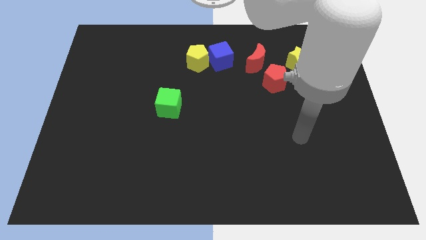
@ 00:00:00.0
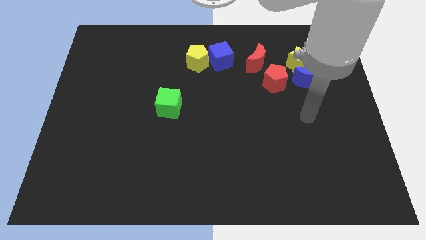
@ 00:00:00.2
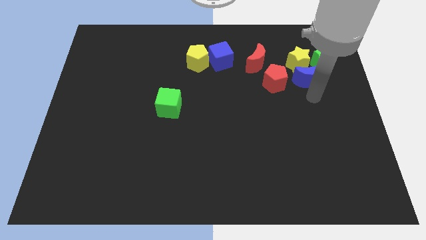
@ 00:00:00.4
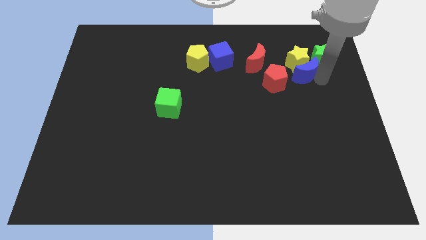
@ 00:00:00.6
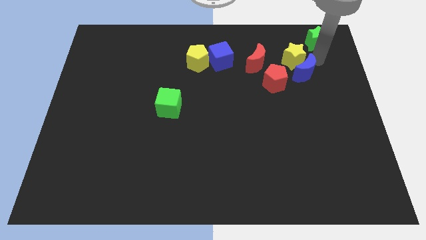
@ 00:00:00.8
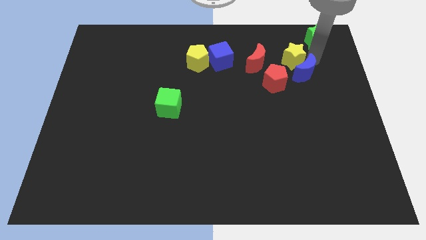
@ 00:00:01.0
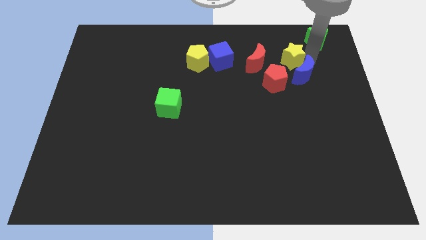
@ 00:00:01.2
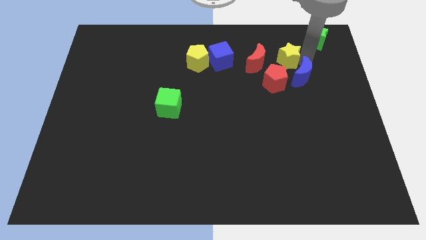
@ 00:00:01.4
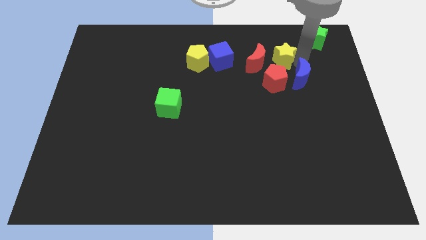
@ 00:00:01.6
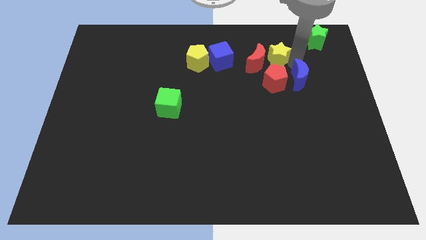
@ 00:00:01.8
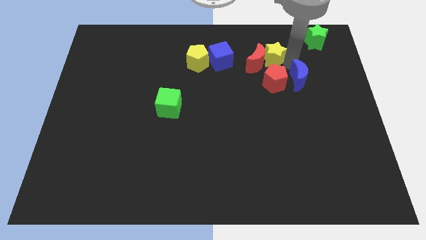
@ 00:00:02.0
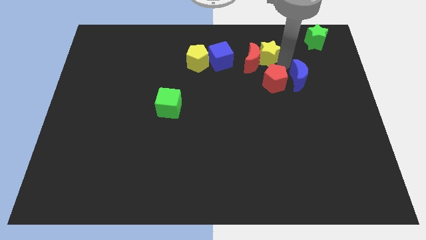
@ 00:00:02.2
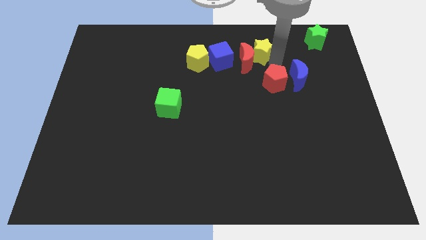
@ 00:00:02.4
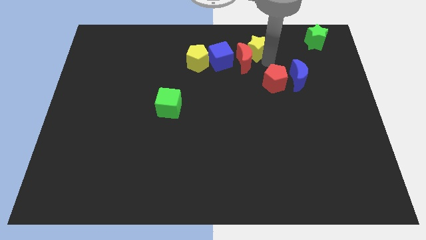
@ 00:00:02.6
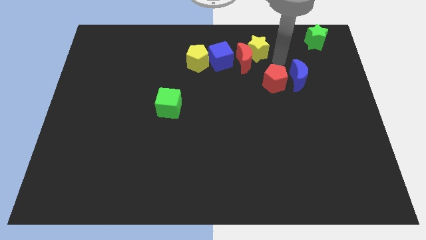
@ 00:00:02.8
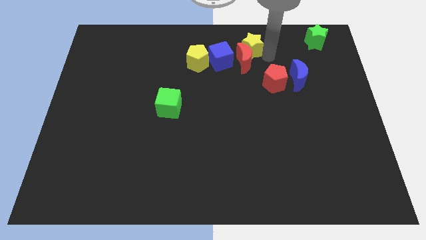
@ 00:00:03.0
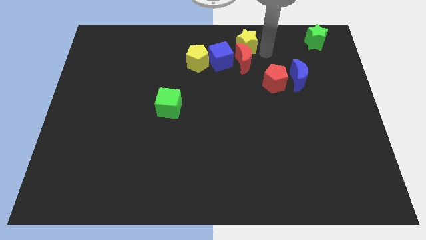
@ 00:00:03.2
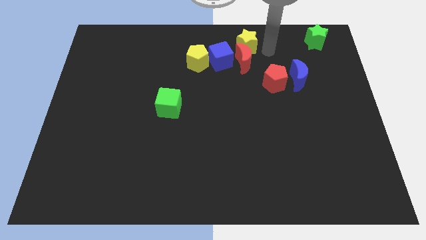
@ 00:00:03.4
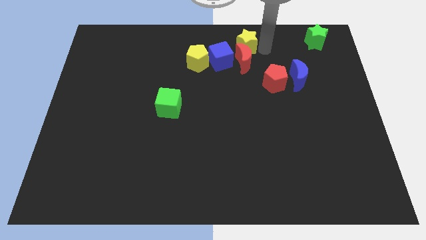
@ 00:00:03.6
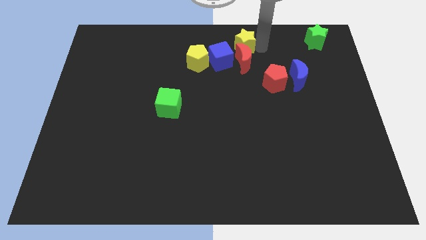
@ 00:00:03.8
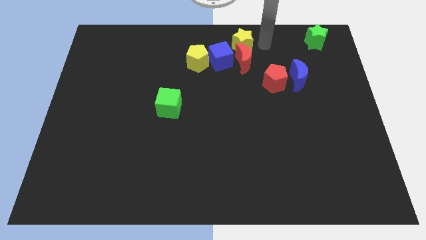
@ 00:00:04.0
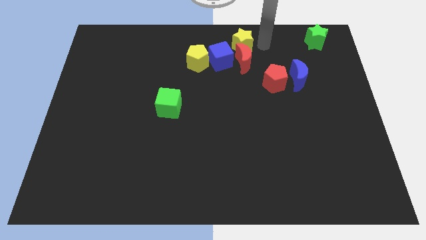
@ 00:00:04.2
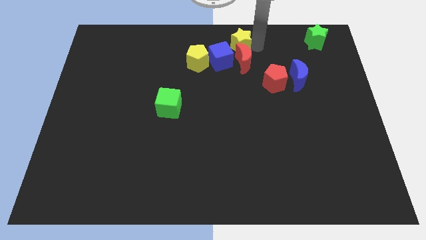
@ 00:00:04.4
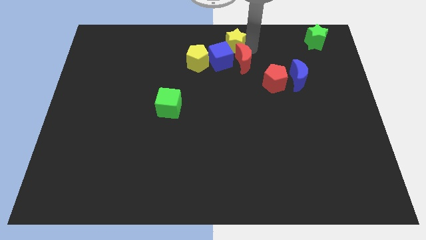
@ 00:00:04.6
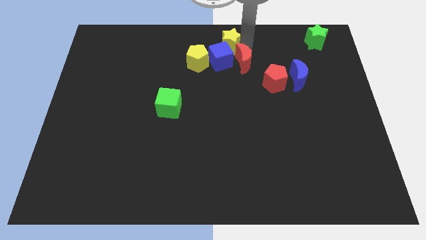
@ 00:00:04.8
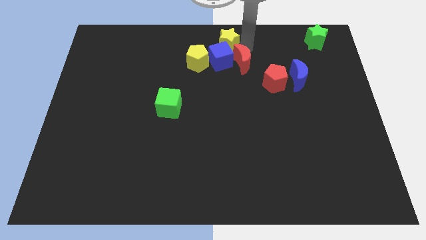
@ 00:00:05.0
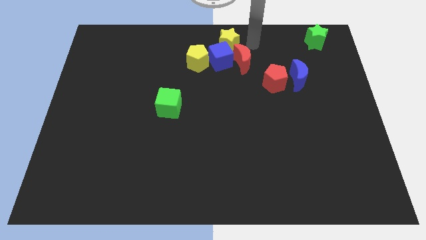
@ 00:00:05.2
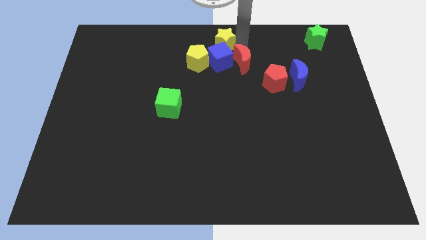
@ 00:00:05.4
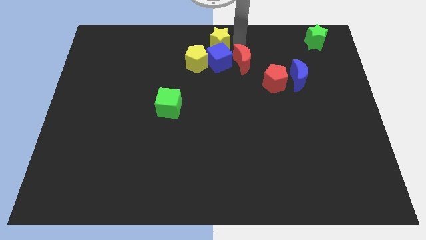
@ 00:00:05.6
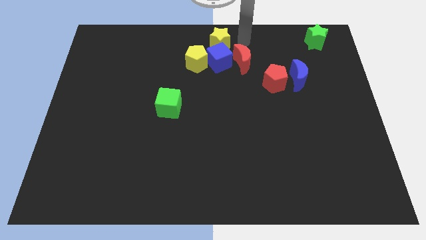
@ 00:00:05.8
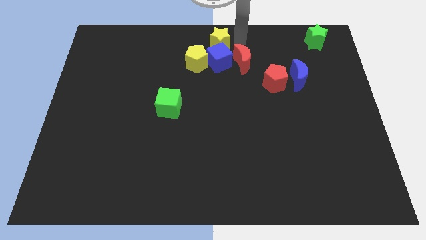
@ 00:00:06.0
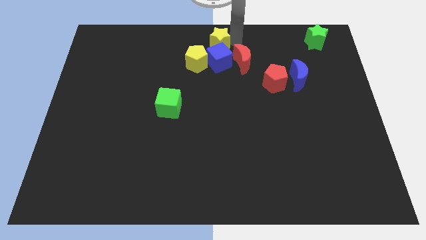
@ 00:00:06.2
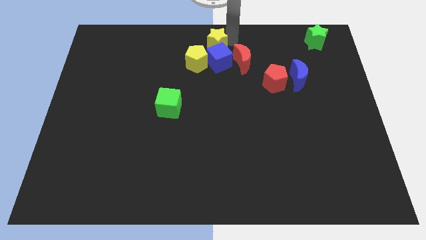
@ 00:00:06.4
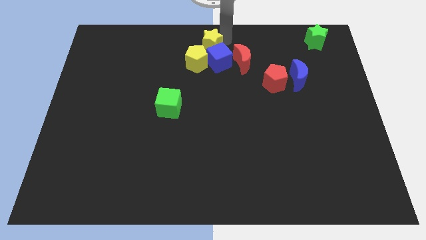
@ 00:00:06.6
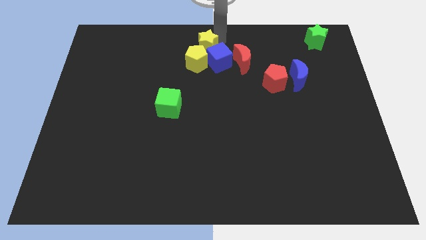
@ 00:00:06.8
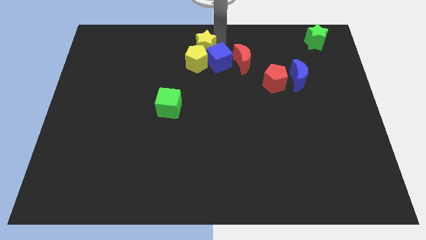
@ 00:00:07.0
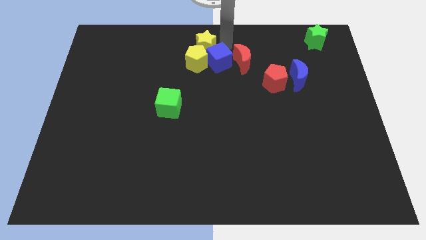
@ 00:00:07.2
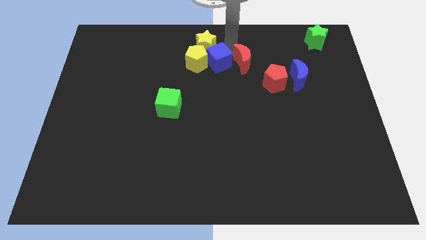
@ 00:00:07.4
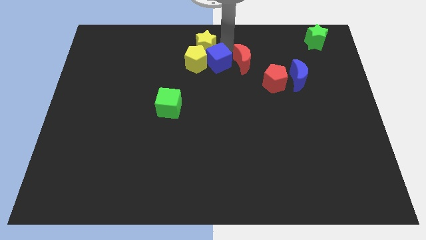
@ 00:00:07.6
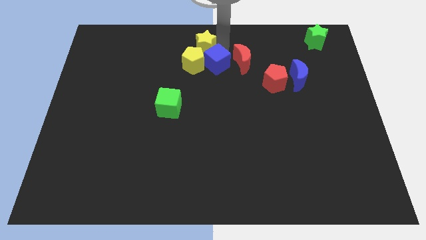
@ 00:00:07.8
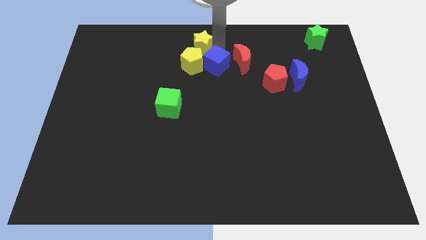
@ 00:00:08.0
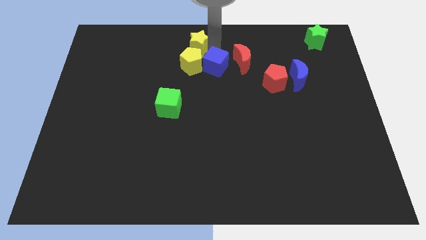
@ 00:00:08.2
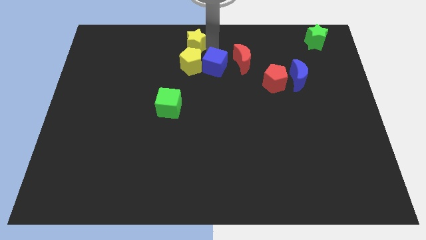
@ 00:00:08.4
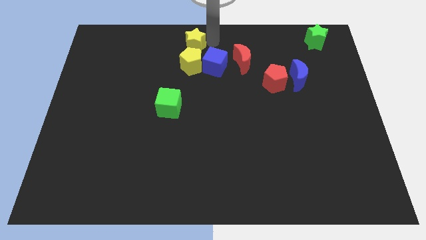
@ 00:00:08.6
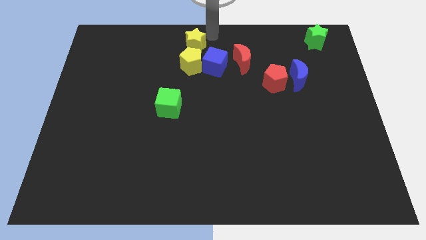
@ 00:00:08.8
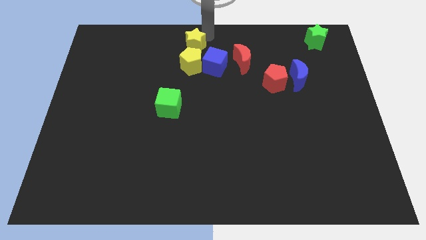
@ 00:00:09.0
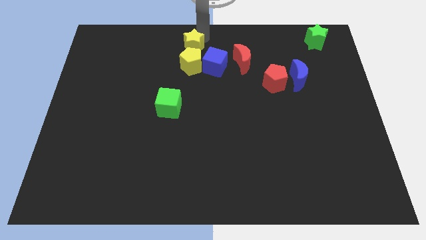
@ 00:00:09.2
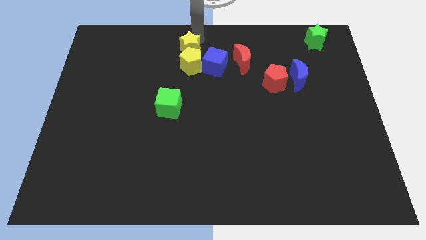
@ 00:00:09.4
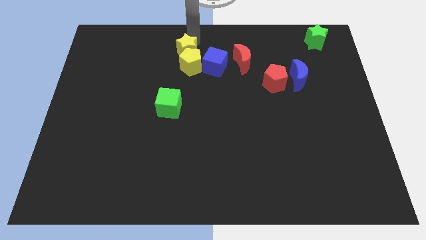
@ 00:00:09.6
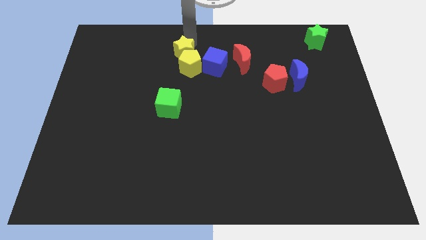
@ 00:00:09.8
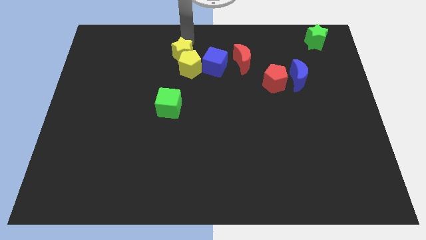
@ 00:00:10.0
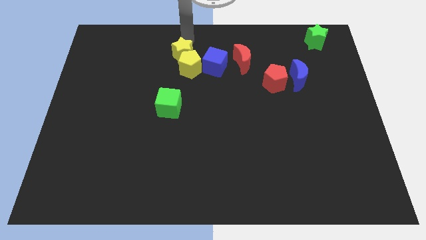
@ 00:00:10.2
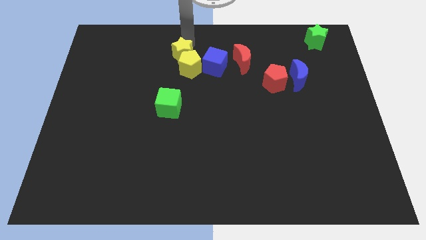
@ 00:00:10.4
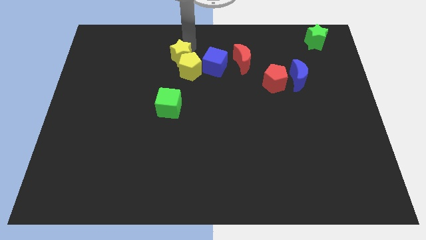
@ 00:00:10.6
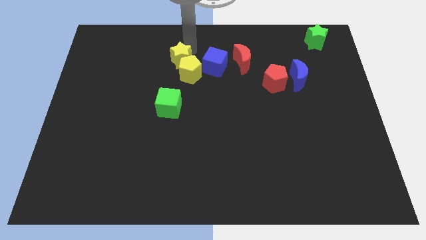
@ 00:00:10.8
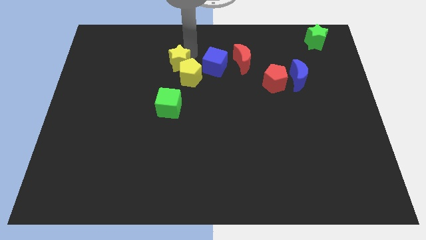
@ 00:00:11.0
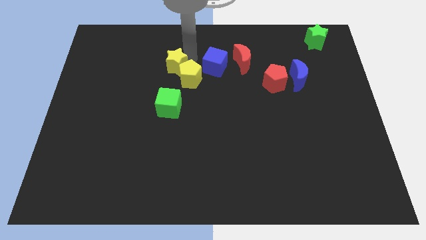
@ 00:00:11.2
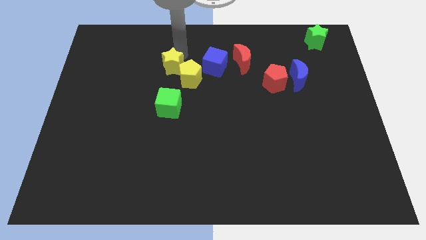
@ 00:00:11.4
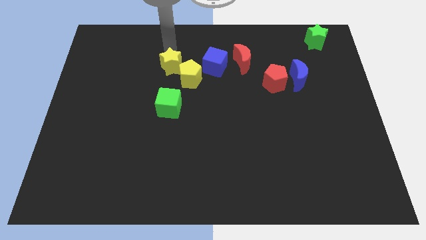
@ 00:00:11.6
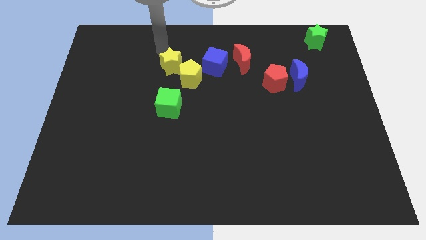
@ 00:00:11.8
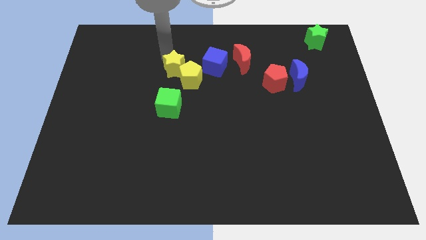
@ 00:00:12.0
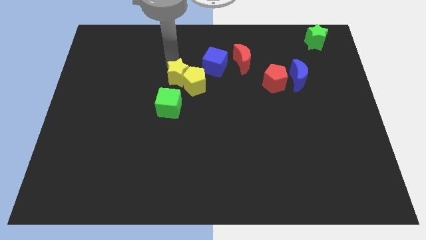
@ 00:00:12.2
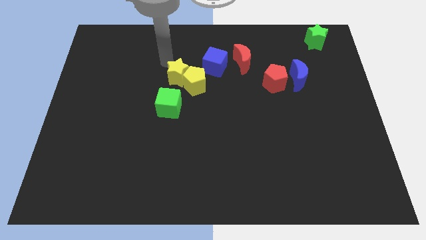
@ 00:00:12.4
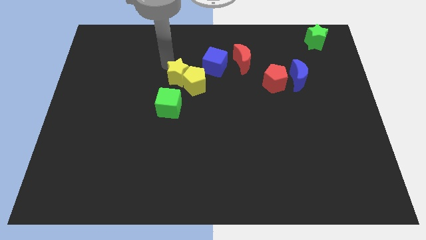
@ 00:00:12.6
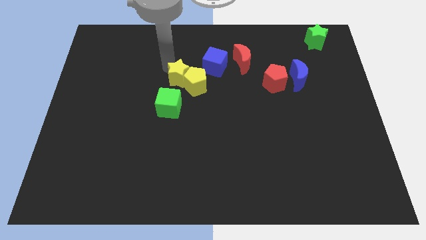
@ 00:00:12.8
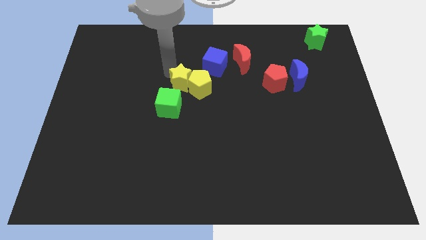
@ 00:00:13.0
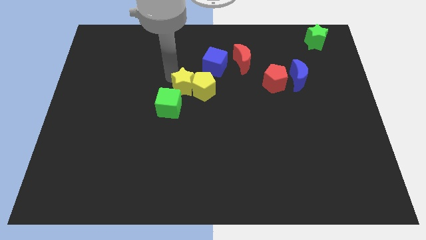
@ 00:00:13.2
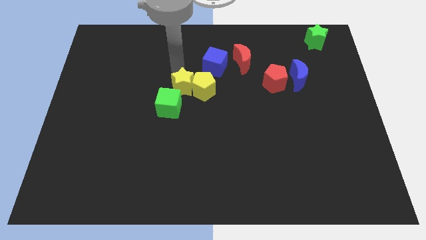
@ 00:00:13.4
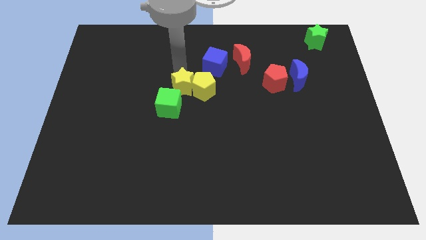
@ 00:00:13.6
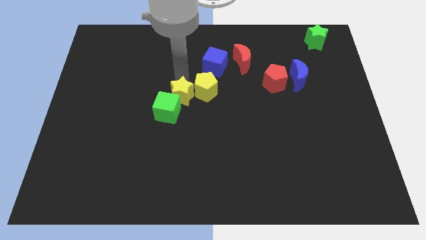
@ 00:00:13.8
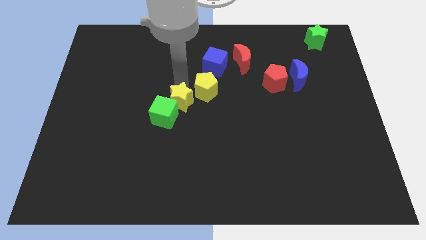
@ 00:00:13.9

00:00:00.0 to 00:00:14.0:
slide the yellow star down and to the left diagonally

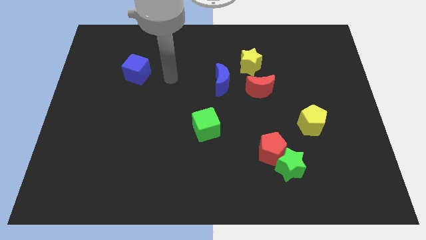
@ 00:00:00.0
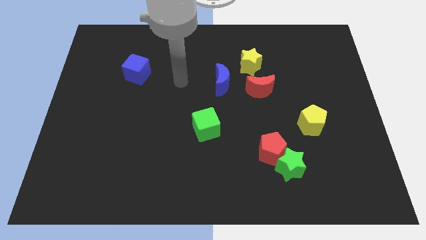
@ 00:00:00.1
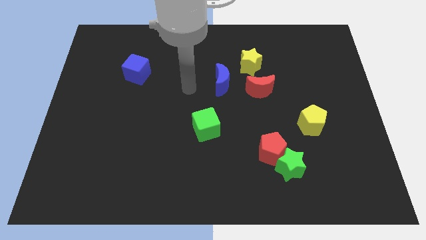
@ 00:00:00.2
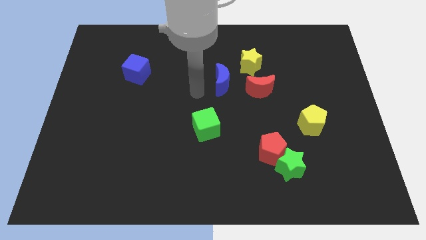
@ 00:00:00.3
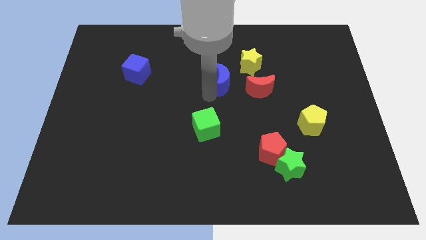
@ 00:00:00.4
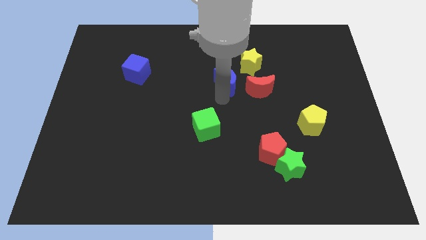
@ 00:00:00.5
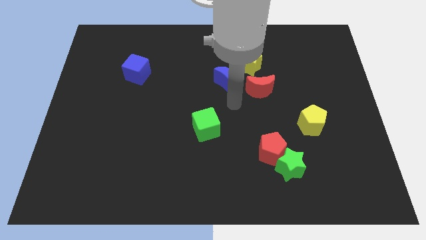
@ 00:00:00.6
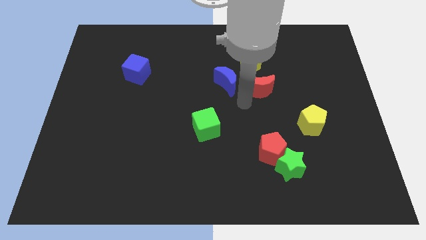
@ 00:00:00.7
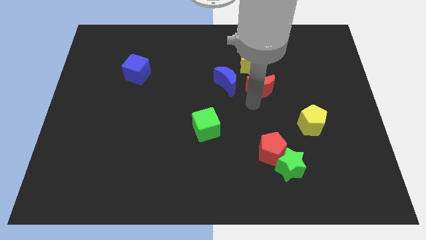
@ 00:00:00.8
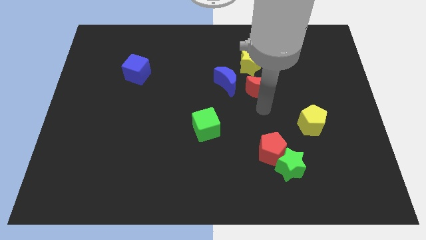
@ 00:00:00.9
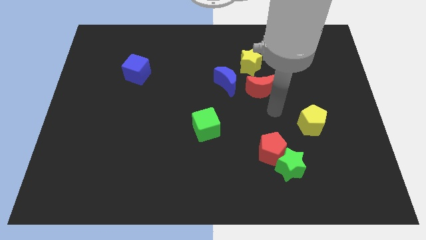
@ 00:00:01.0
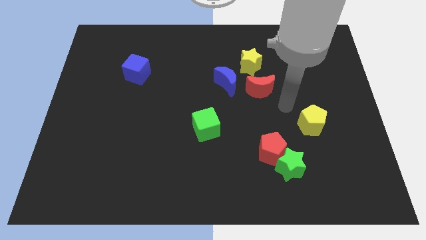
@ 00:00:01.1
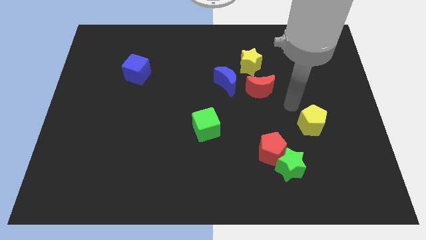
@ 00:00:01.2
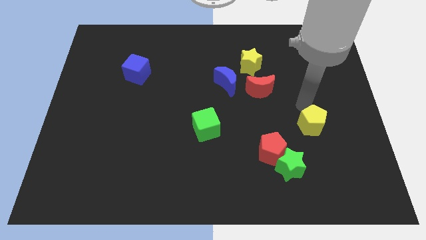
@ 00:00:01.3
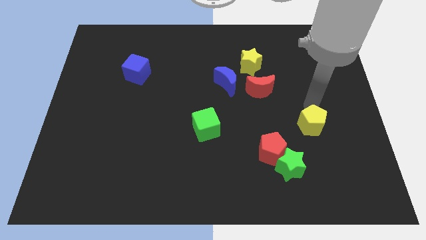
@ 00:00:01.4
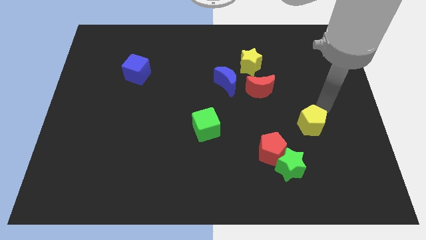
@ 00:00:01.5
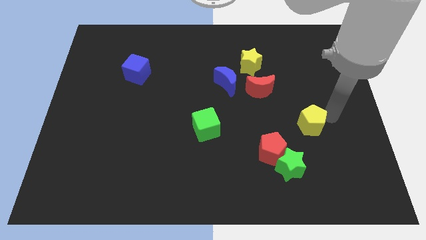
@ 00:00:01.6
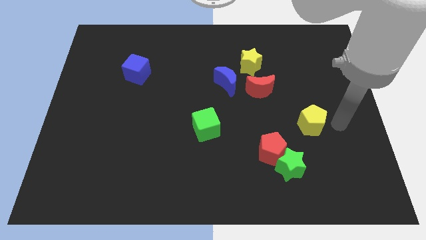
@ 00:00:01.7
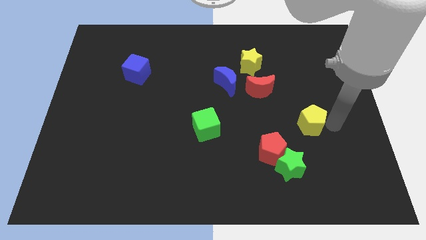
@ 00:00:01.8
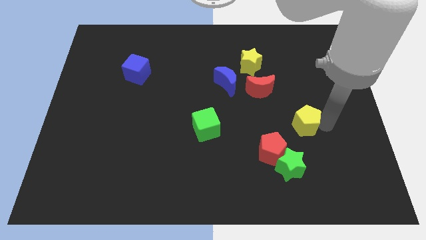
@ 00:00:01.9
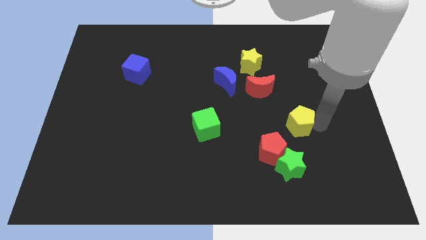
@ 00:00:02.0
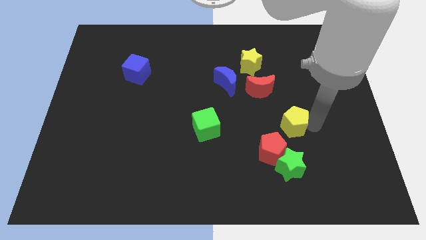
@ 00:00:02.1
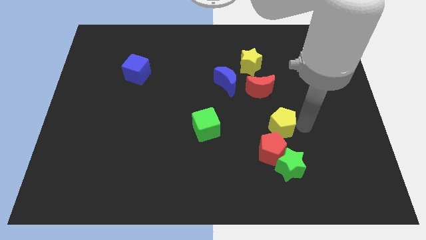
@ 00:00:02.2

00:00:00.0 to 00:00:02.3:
move the yellow pentagon slightly left
